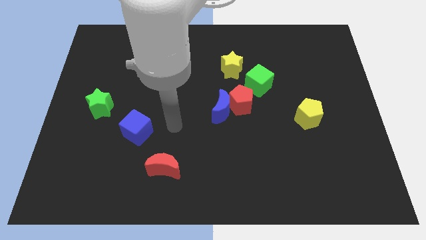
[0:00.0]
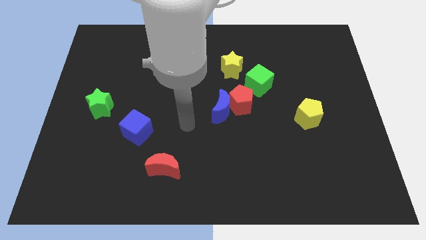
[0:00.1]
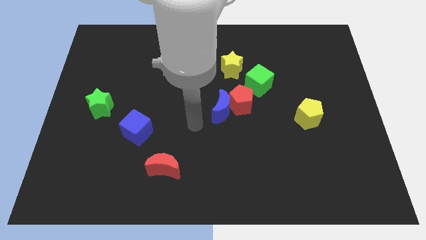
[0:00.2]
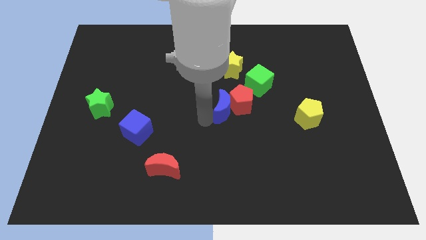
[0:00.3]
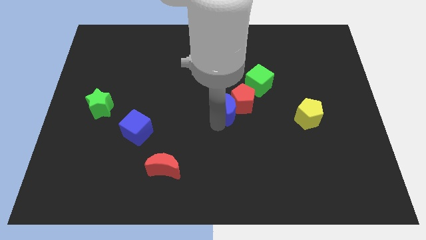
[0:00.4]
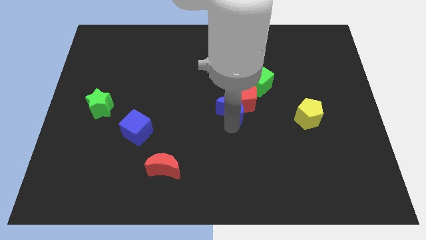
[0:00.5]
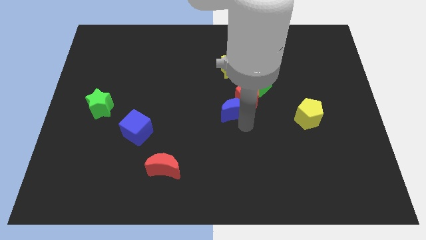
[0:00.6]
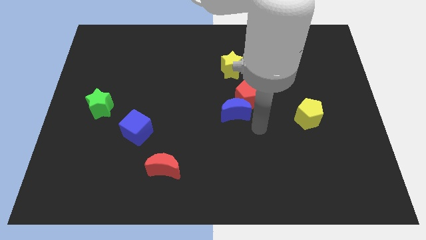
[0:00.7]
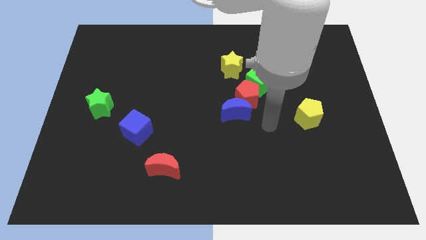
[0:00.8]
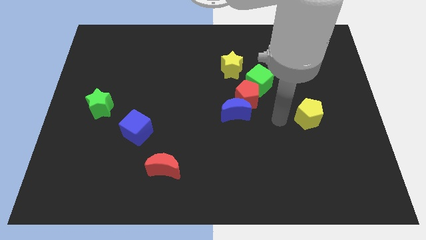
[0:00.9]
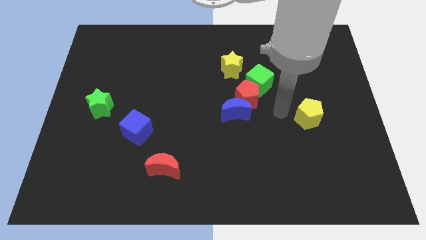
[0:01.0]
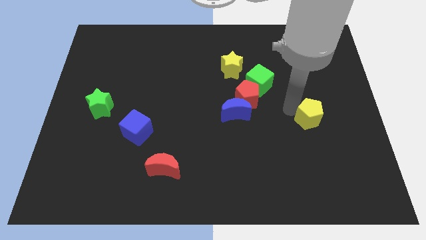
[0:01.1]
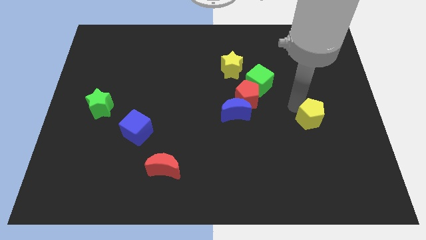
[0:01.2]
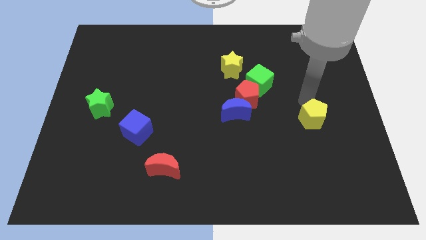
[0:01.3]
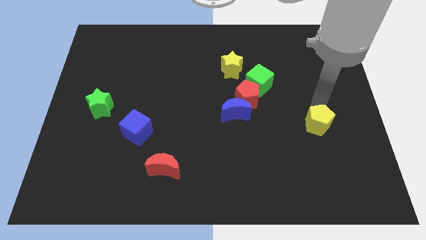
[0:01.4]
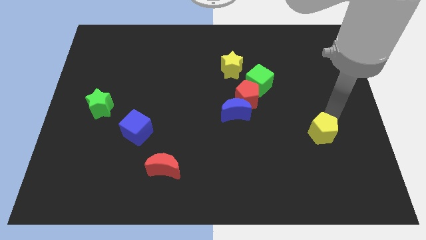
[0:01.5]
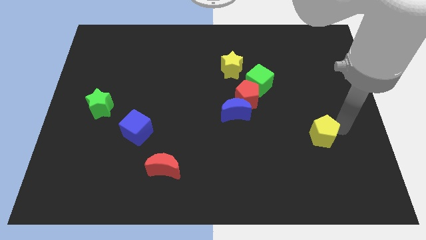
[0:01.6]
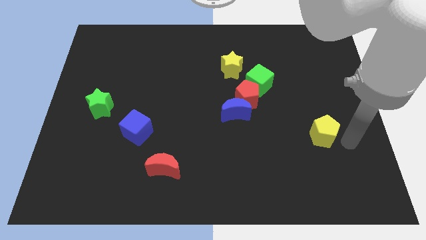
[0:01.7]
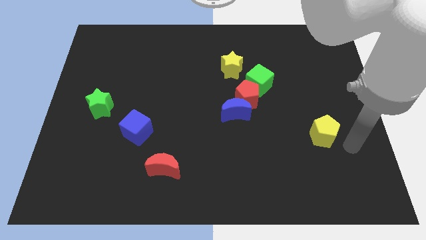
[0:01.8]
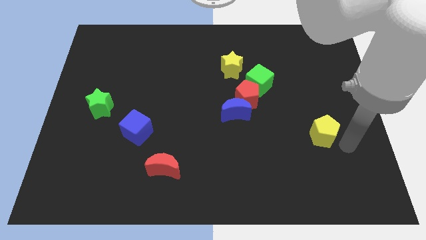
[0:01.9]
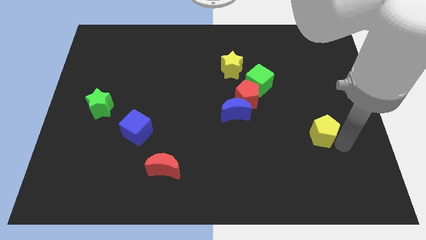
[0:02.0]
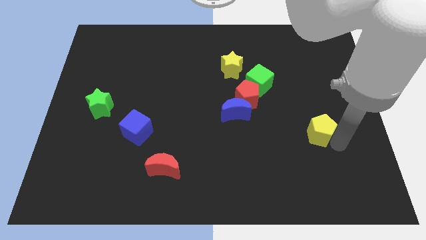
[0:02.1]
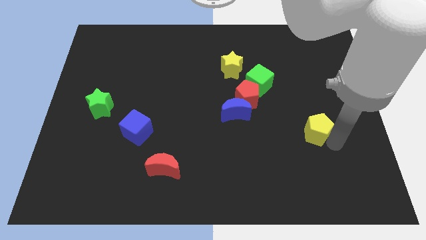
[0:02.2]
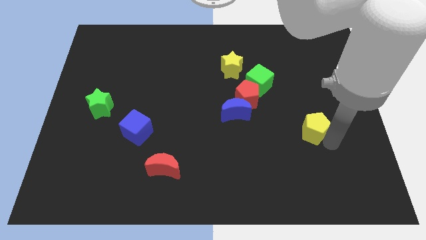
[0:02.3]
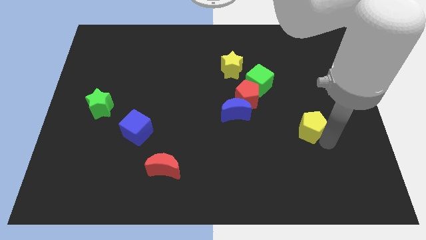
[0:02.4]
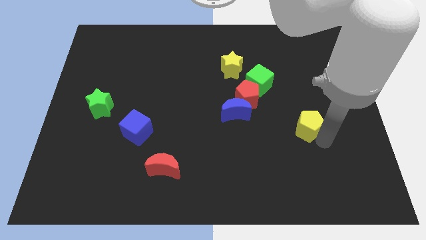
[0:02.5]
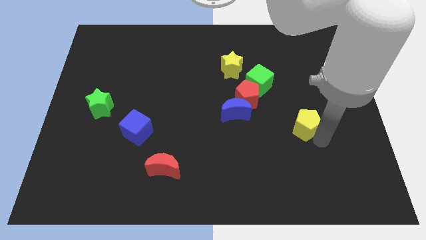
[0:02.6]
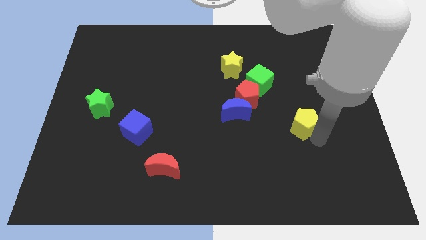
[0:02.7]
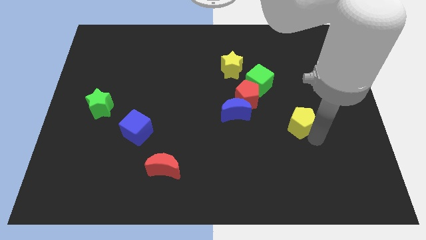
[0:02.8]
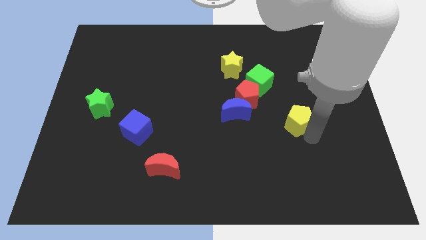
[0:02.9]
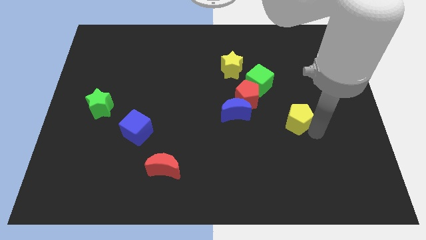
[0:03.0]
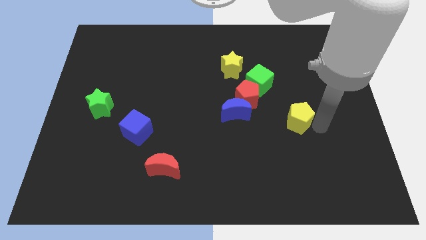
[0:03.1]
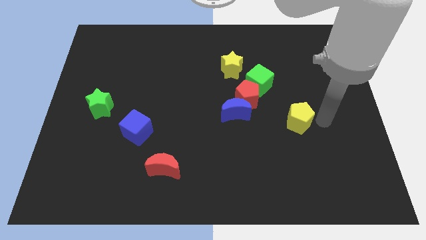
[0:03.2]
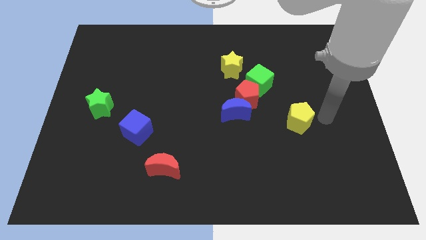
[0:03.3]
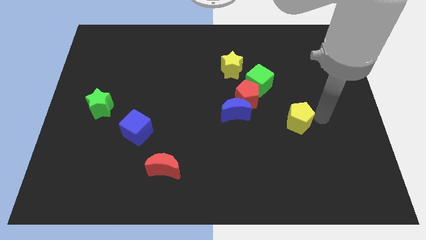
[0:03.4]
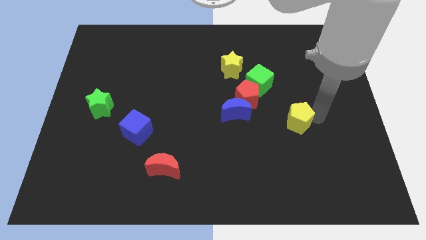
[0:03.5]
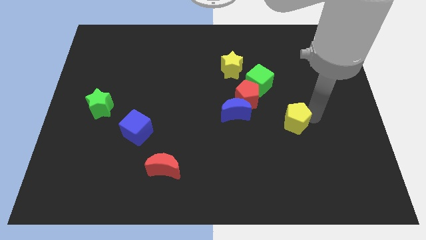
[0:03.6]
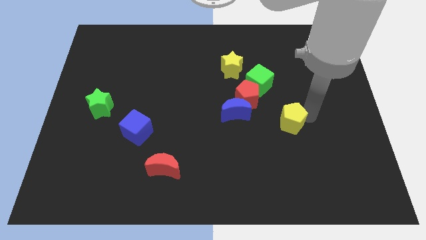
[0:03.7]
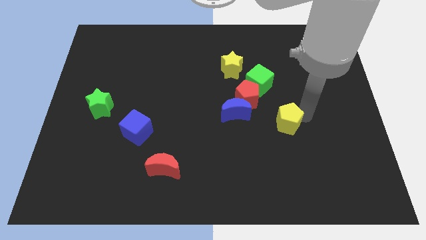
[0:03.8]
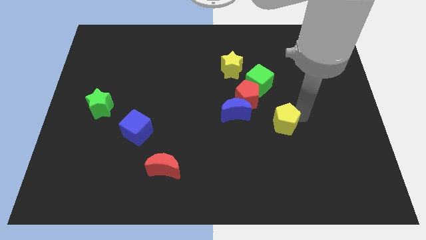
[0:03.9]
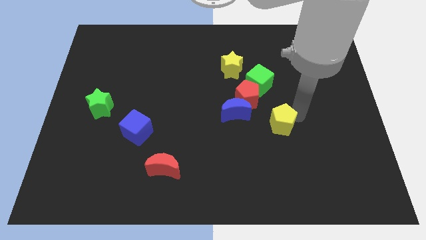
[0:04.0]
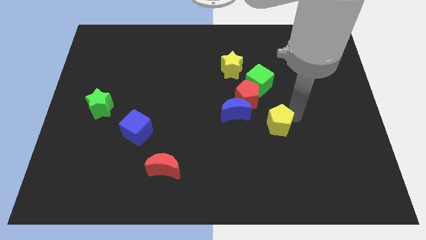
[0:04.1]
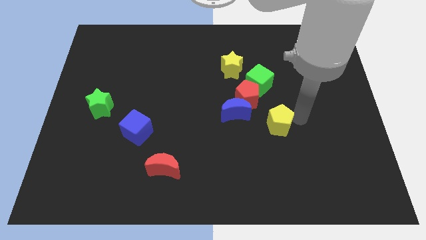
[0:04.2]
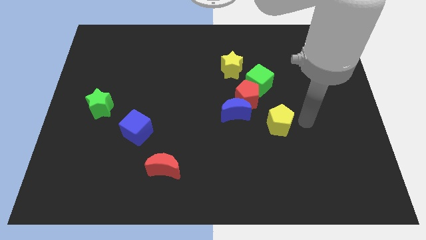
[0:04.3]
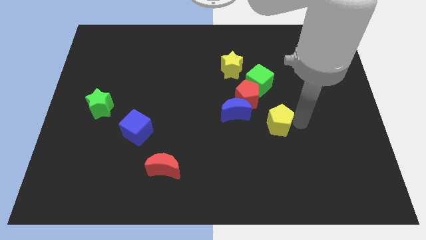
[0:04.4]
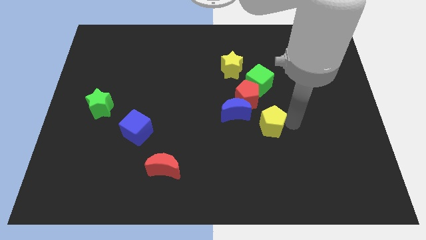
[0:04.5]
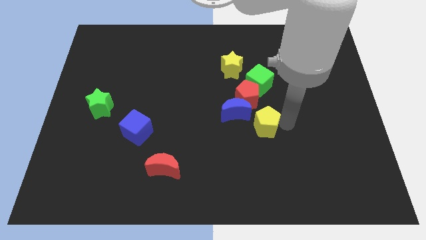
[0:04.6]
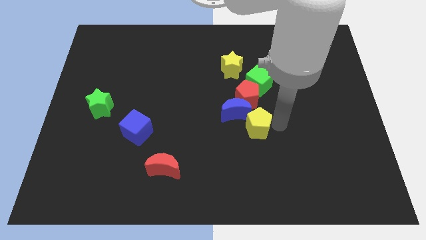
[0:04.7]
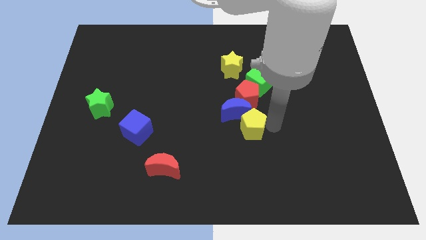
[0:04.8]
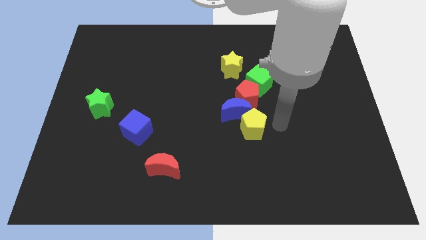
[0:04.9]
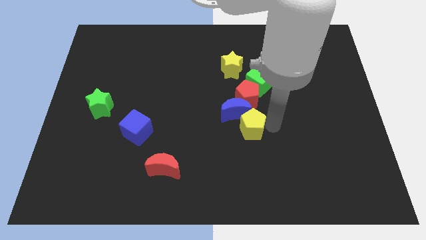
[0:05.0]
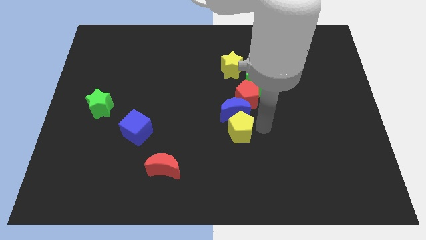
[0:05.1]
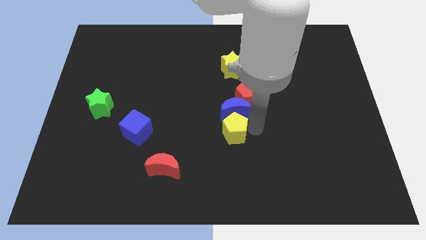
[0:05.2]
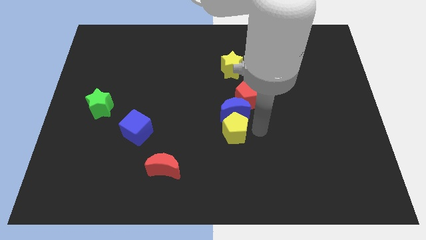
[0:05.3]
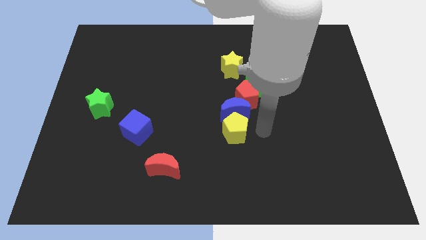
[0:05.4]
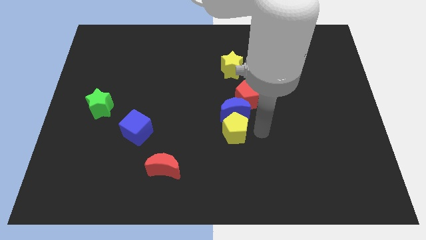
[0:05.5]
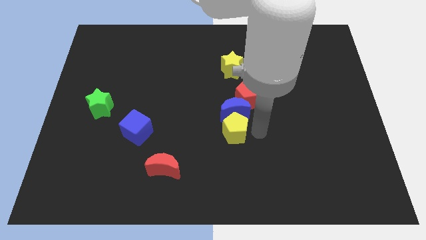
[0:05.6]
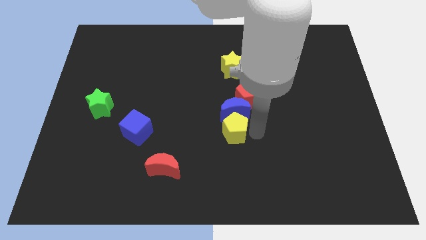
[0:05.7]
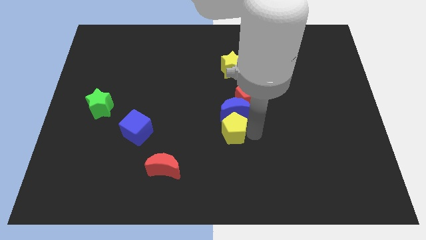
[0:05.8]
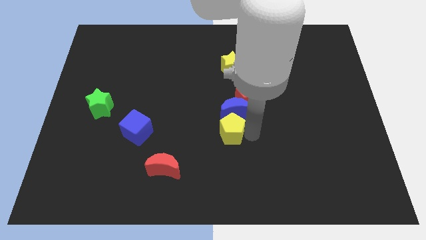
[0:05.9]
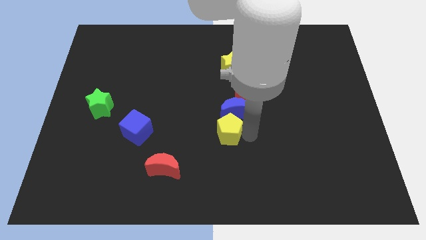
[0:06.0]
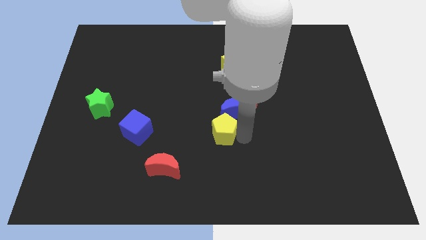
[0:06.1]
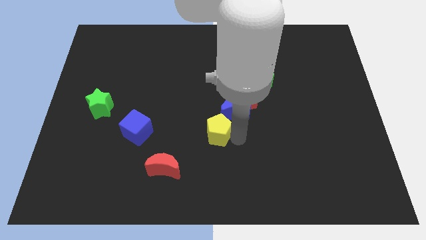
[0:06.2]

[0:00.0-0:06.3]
move the yellow pentagon left

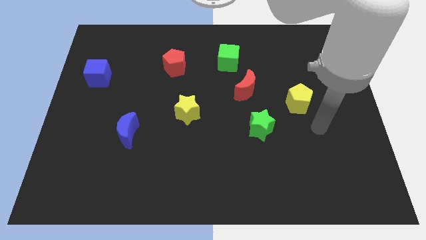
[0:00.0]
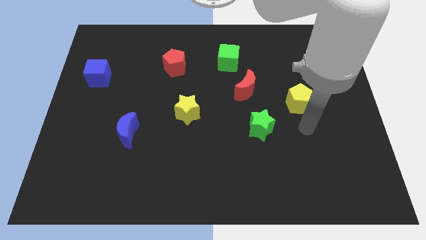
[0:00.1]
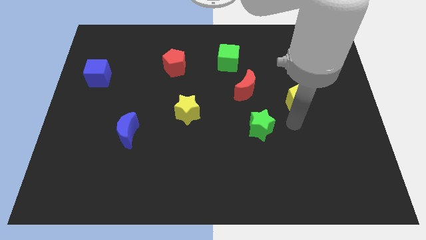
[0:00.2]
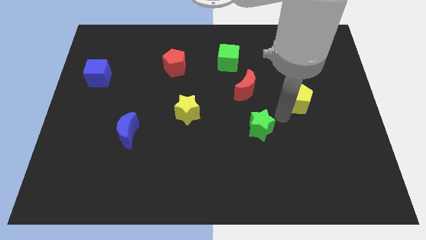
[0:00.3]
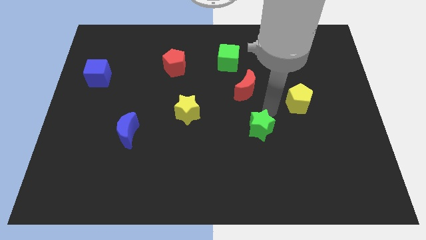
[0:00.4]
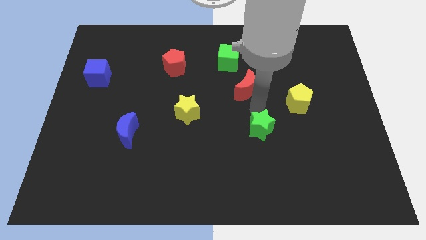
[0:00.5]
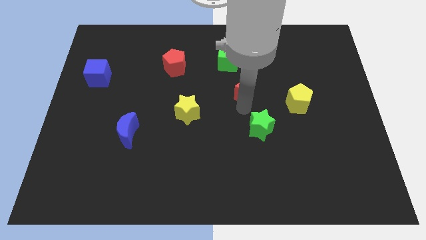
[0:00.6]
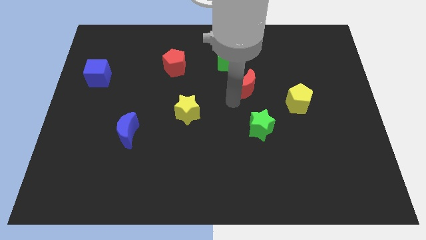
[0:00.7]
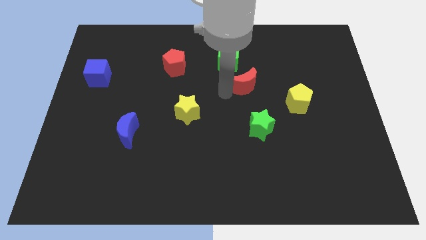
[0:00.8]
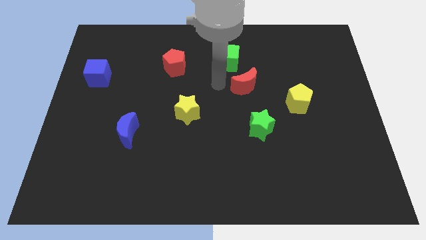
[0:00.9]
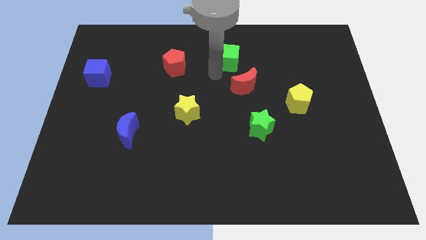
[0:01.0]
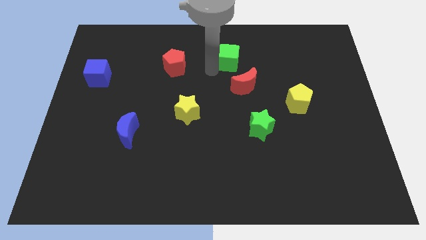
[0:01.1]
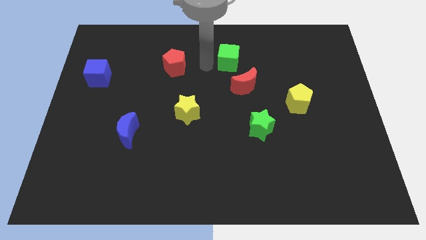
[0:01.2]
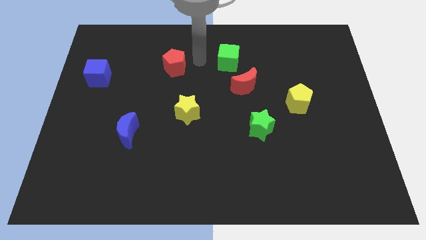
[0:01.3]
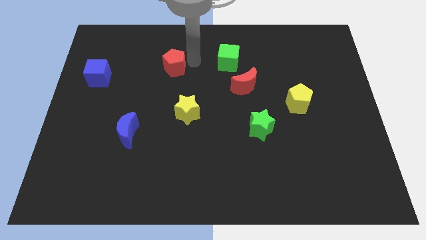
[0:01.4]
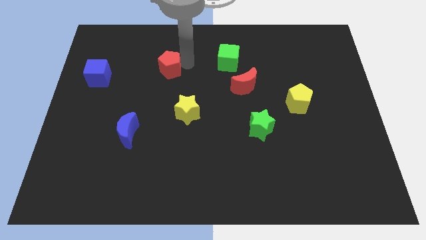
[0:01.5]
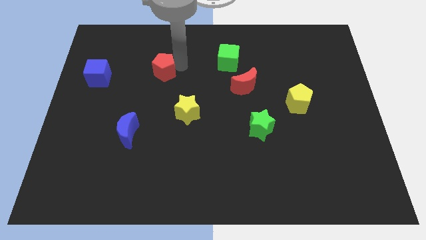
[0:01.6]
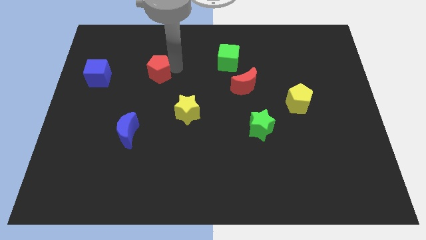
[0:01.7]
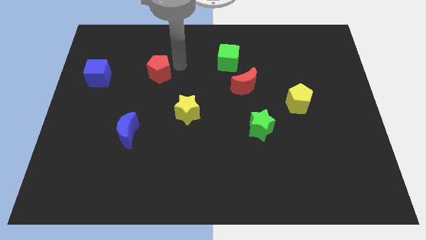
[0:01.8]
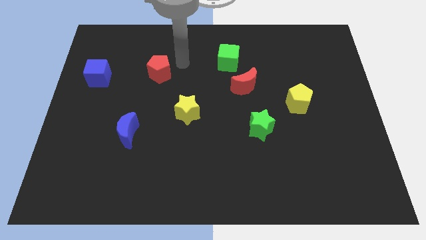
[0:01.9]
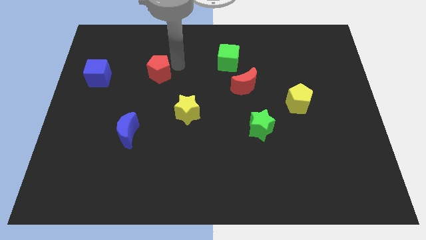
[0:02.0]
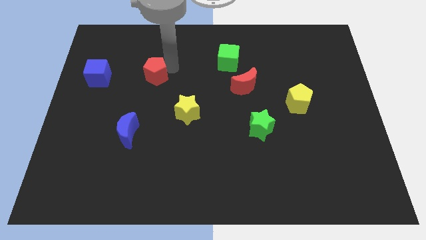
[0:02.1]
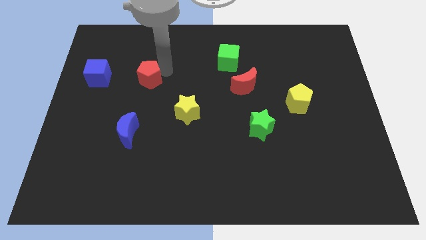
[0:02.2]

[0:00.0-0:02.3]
move the red pentagon a little bit down and to the left
